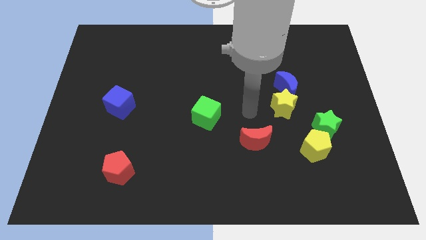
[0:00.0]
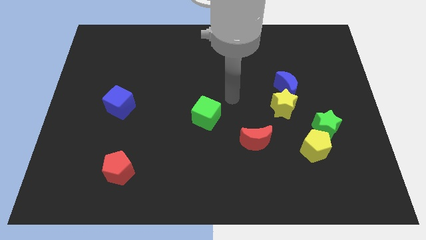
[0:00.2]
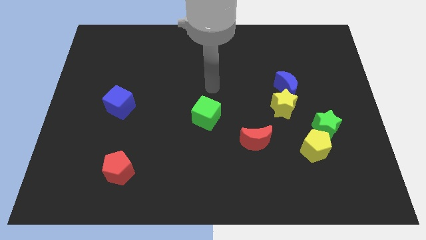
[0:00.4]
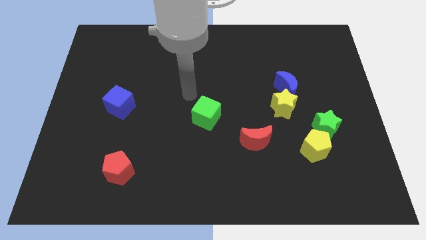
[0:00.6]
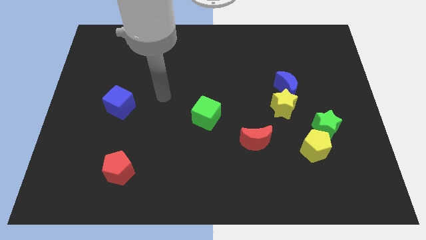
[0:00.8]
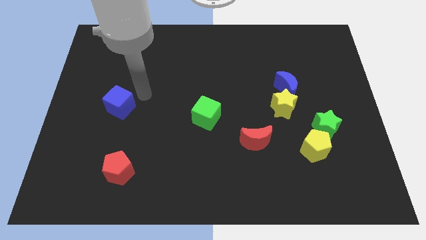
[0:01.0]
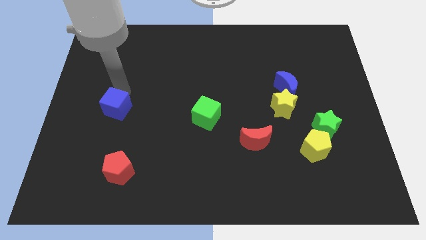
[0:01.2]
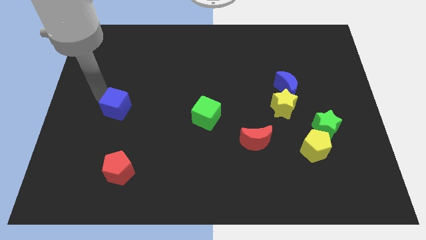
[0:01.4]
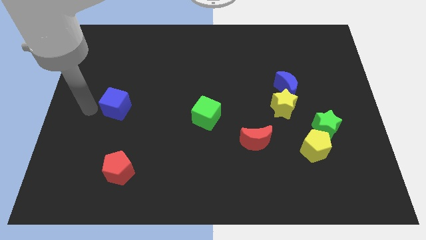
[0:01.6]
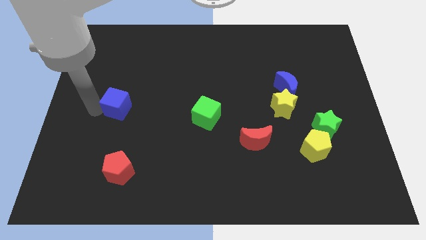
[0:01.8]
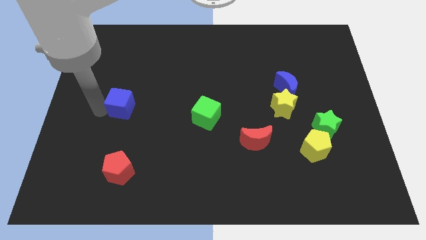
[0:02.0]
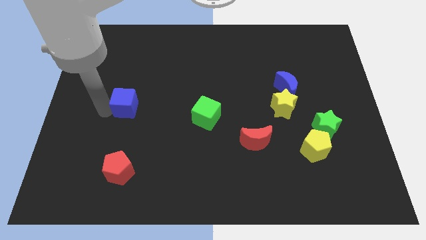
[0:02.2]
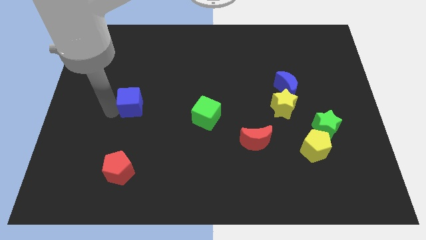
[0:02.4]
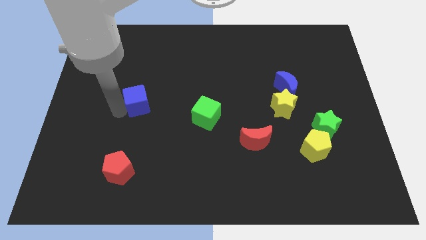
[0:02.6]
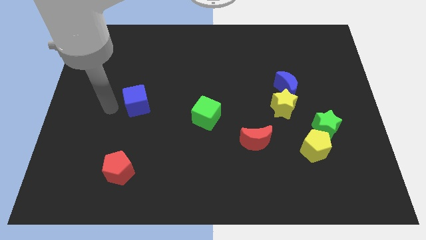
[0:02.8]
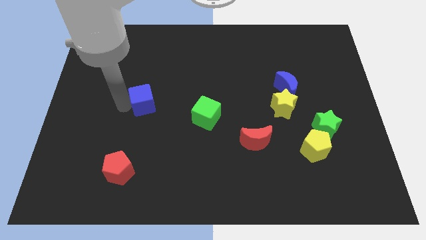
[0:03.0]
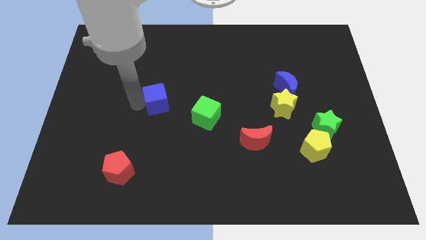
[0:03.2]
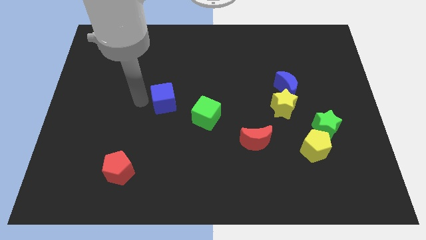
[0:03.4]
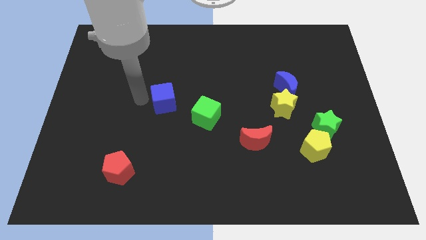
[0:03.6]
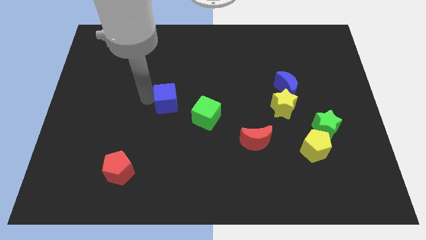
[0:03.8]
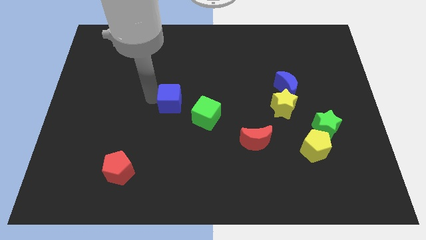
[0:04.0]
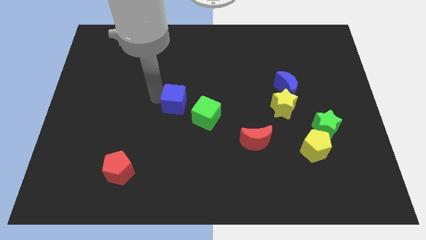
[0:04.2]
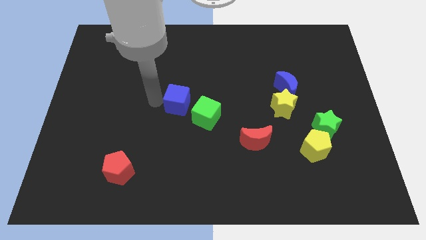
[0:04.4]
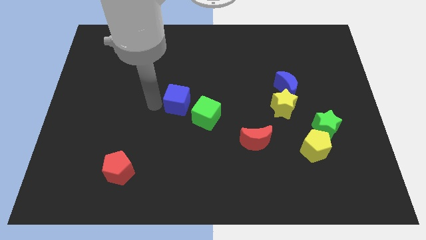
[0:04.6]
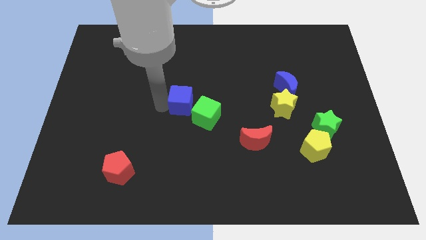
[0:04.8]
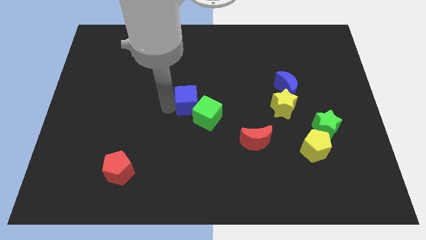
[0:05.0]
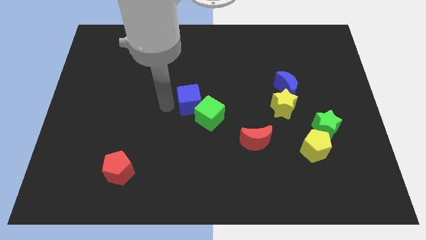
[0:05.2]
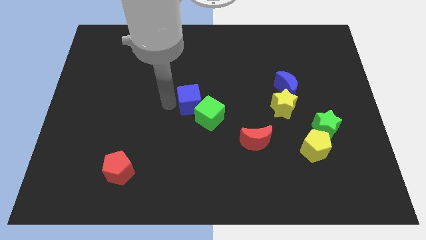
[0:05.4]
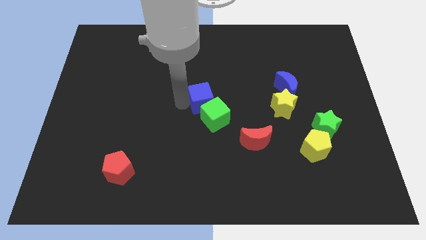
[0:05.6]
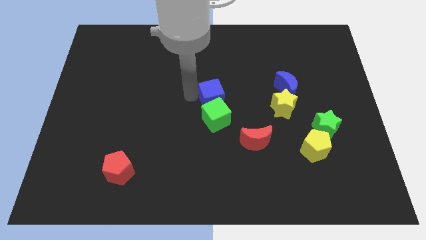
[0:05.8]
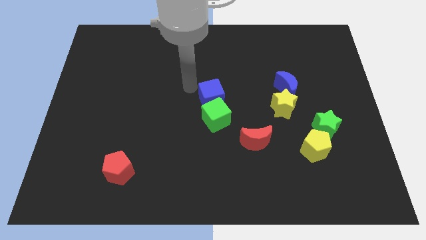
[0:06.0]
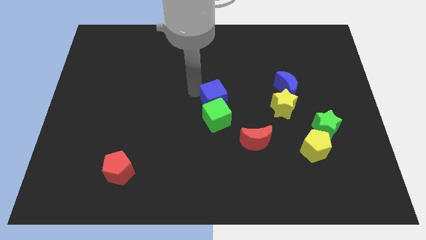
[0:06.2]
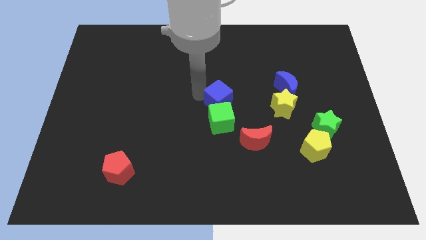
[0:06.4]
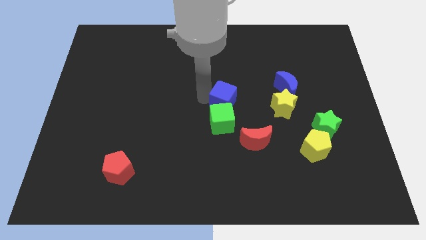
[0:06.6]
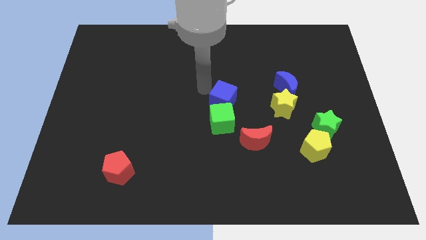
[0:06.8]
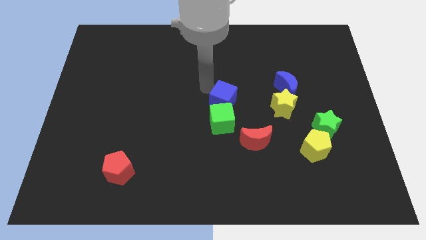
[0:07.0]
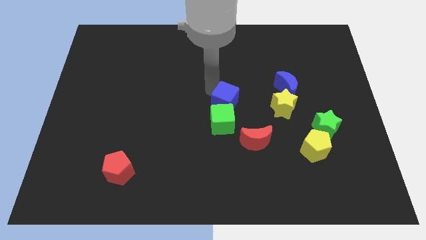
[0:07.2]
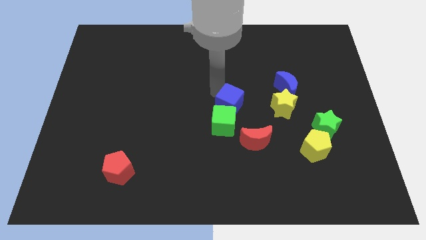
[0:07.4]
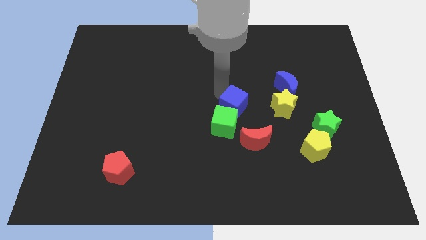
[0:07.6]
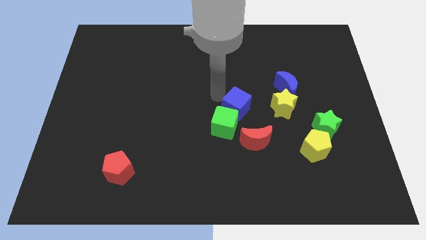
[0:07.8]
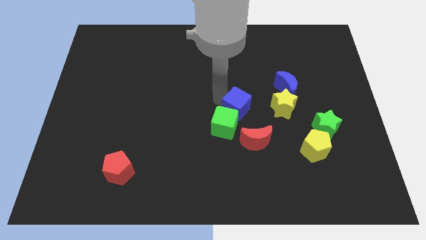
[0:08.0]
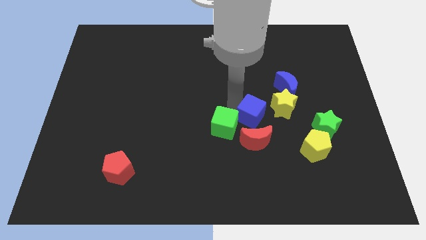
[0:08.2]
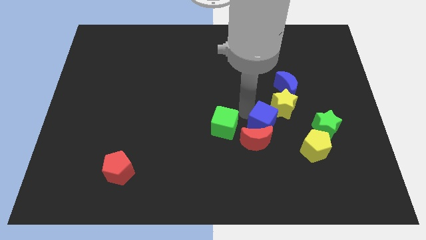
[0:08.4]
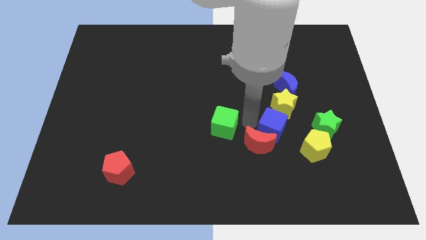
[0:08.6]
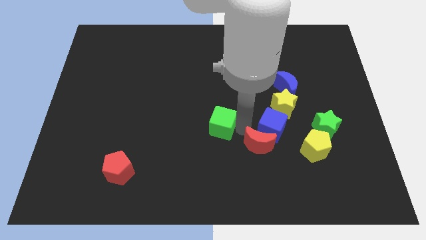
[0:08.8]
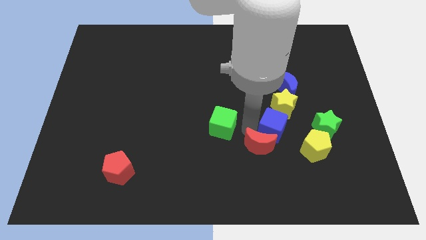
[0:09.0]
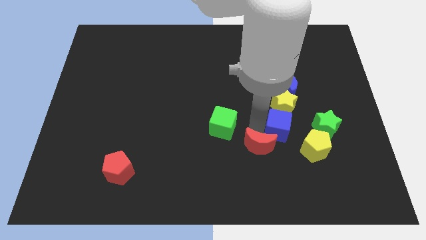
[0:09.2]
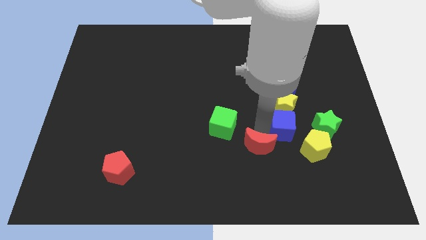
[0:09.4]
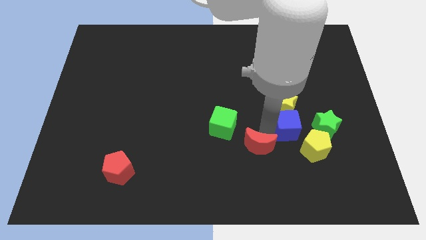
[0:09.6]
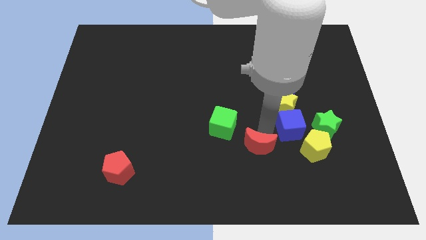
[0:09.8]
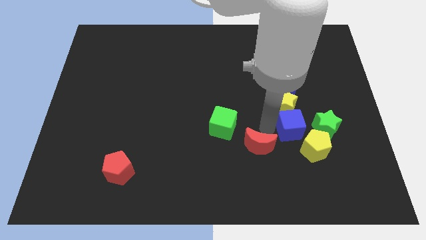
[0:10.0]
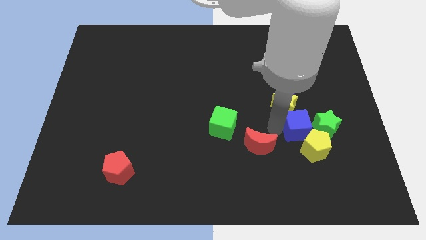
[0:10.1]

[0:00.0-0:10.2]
move the blue cube next to the green star
